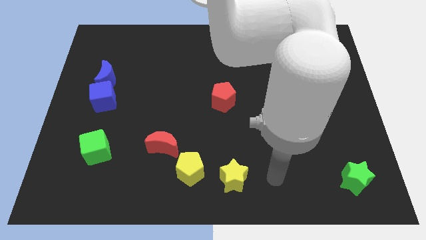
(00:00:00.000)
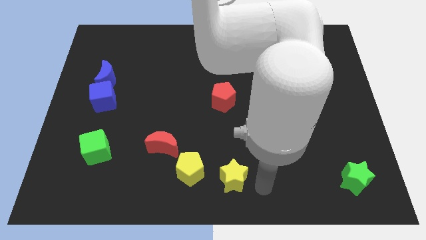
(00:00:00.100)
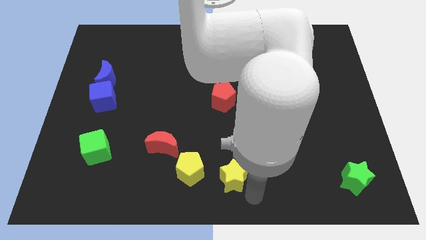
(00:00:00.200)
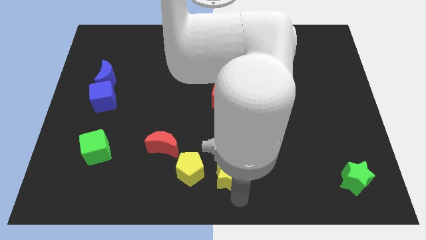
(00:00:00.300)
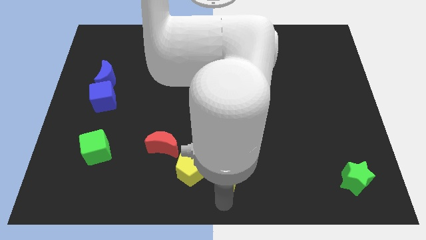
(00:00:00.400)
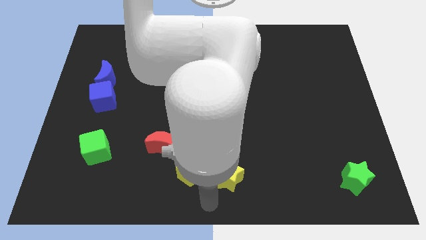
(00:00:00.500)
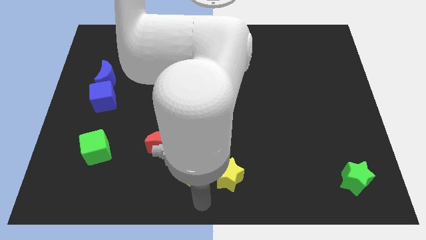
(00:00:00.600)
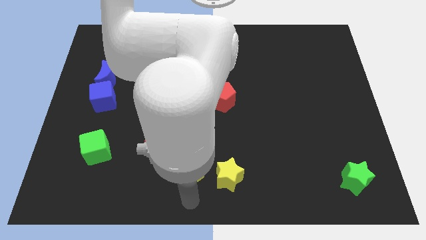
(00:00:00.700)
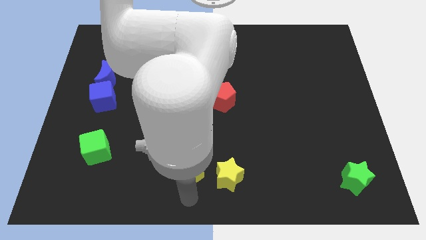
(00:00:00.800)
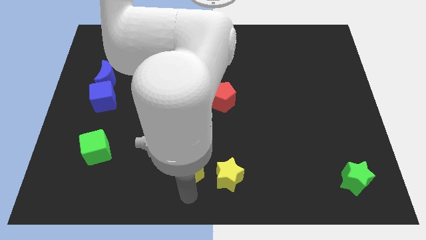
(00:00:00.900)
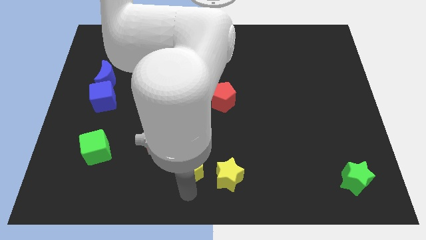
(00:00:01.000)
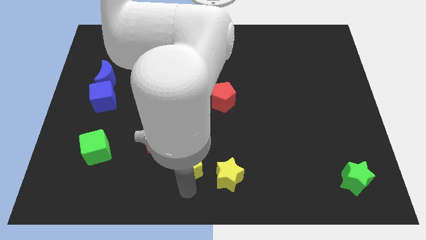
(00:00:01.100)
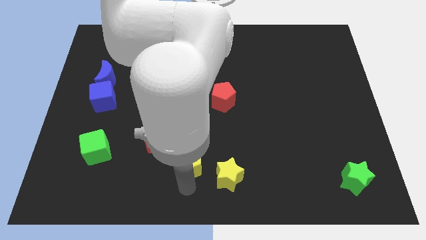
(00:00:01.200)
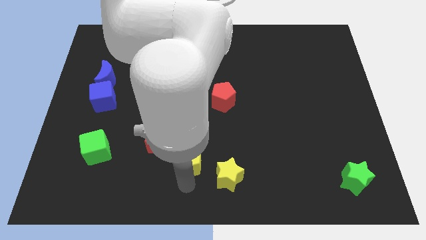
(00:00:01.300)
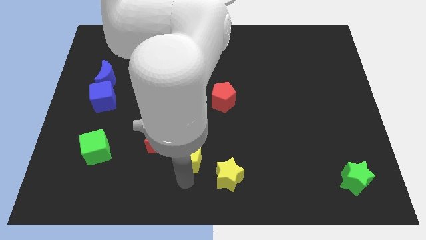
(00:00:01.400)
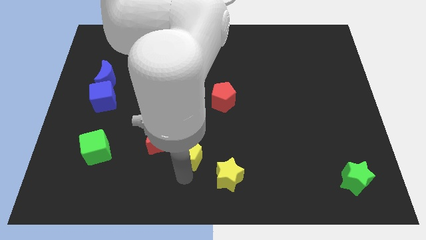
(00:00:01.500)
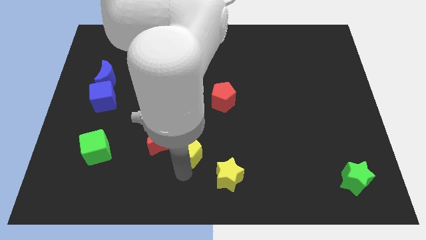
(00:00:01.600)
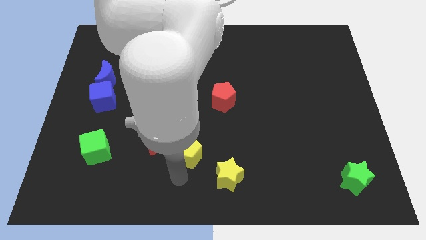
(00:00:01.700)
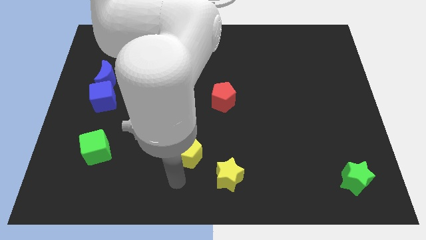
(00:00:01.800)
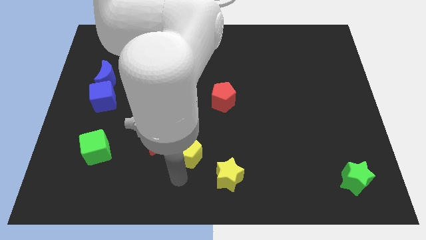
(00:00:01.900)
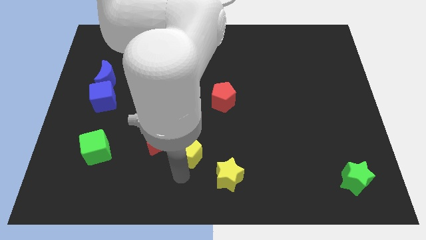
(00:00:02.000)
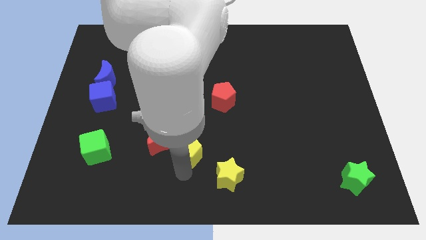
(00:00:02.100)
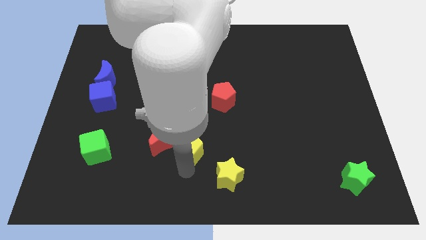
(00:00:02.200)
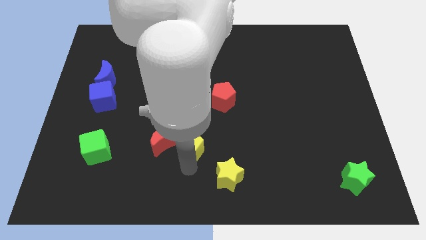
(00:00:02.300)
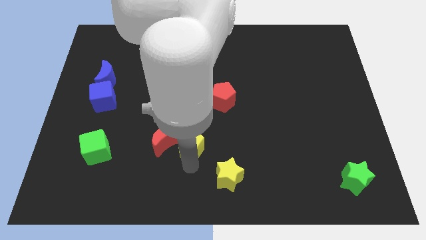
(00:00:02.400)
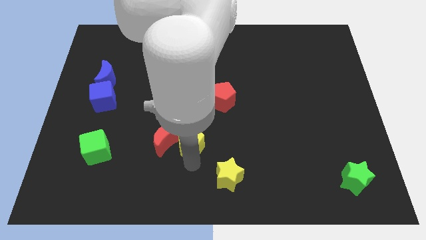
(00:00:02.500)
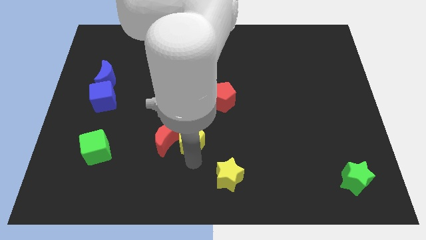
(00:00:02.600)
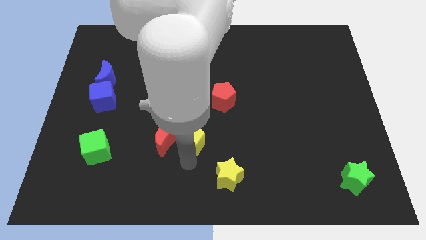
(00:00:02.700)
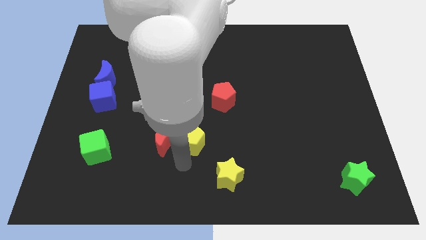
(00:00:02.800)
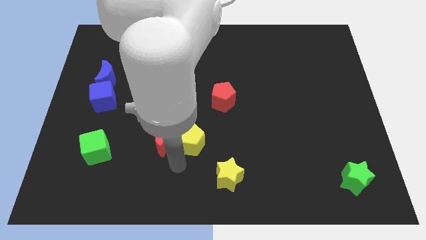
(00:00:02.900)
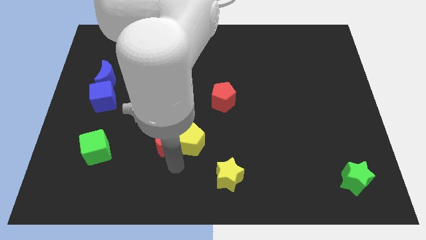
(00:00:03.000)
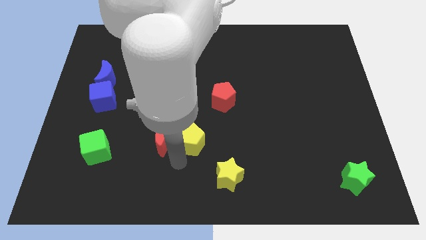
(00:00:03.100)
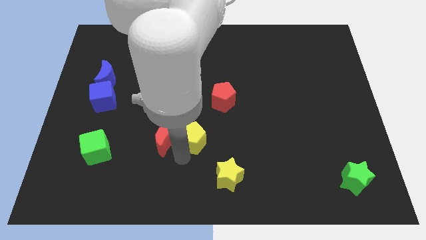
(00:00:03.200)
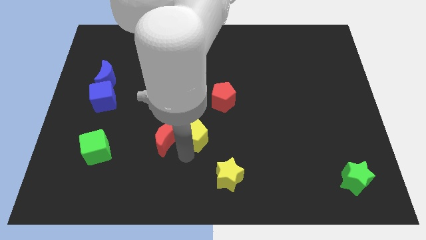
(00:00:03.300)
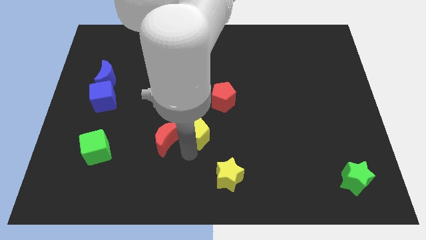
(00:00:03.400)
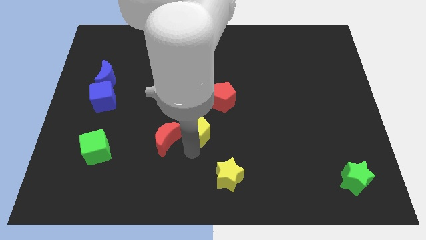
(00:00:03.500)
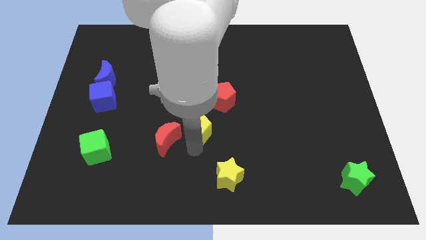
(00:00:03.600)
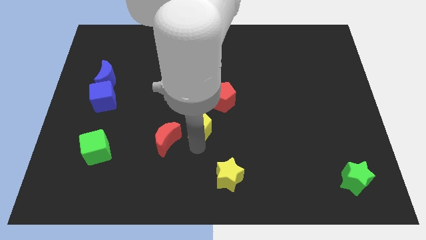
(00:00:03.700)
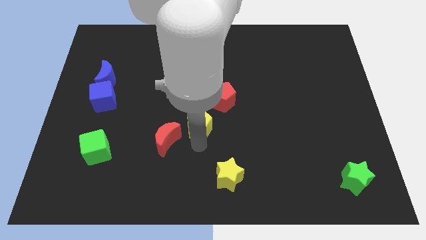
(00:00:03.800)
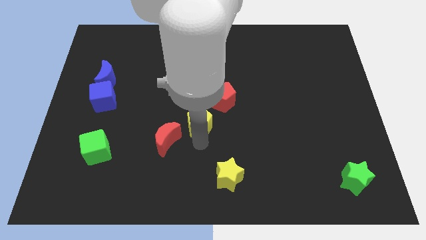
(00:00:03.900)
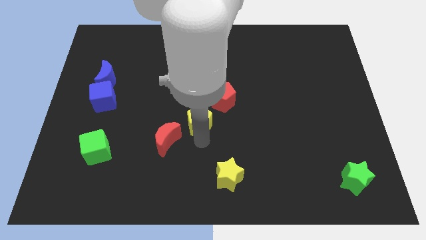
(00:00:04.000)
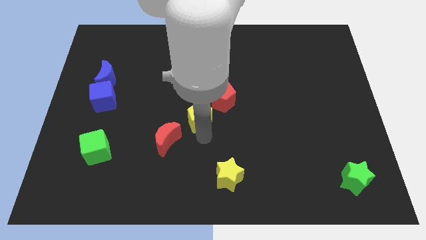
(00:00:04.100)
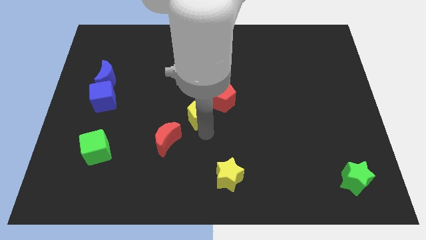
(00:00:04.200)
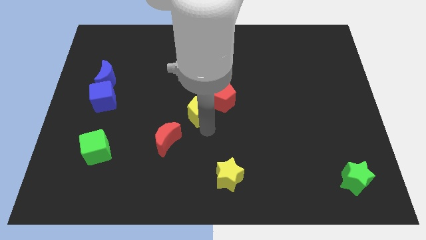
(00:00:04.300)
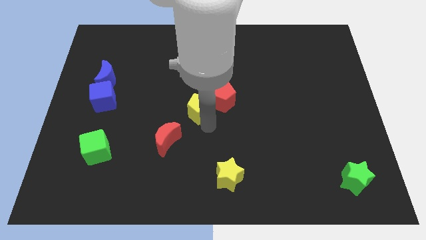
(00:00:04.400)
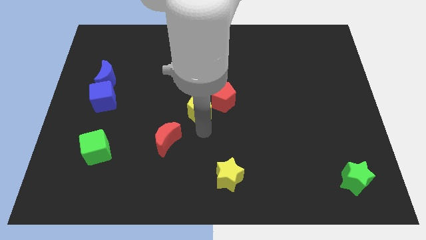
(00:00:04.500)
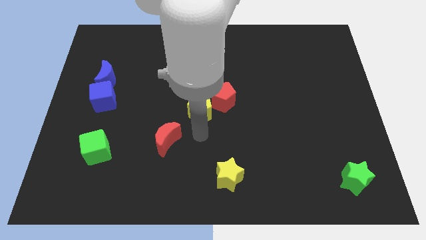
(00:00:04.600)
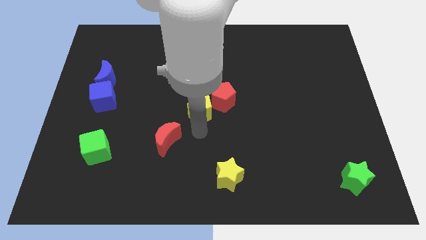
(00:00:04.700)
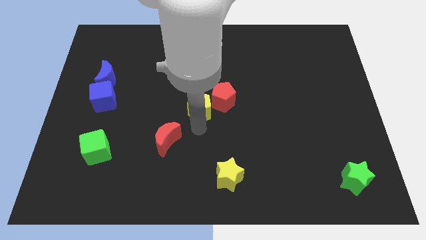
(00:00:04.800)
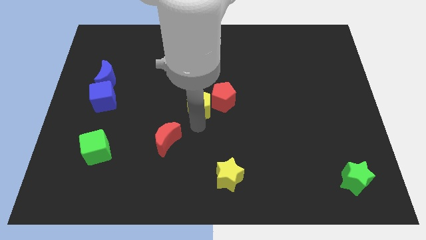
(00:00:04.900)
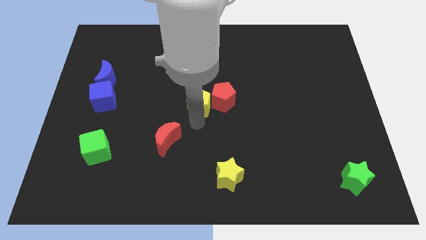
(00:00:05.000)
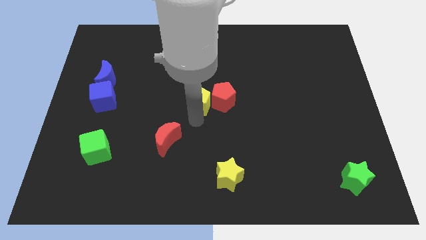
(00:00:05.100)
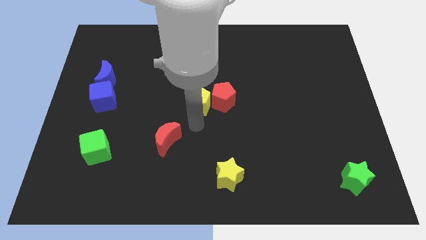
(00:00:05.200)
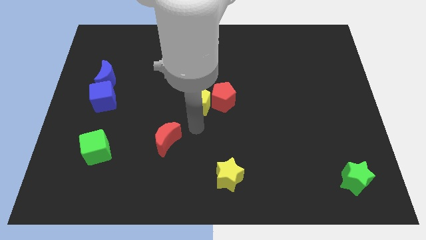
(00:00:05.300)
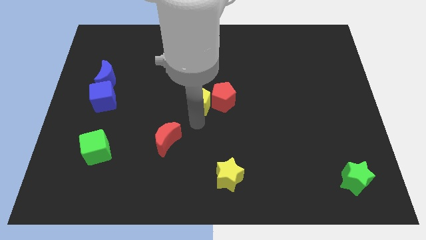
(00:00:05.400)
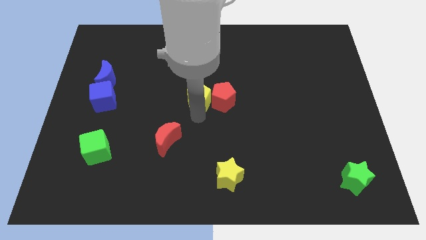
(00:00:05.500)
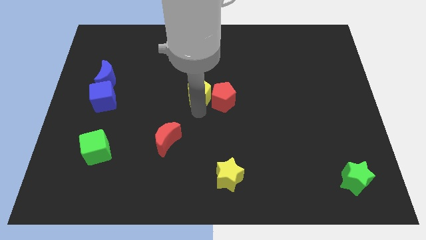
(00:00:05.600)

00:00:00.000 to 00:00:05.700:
move the yellow pentagon upwards

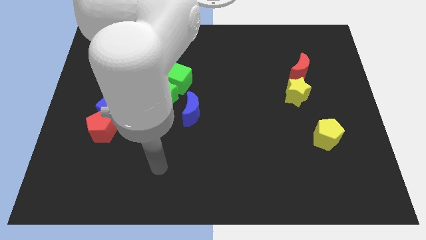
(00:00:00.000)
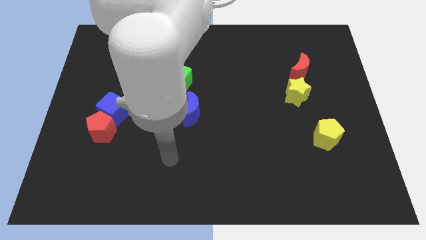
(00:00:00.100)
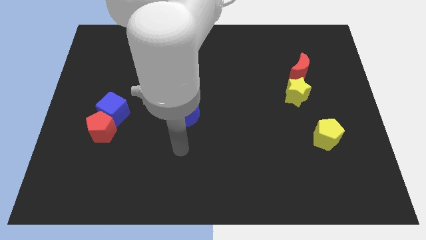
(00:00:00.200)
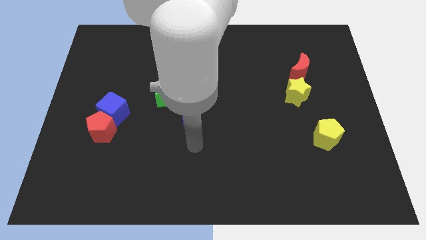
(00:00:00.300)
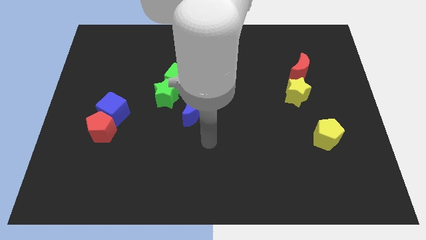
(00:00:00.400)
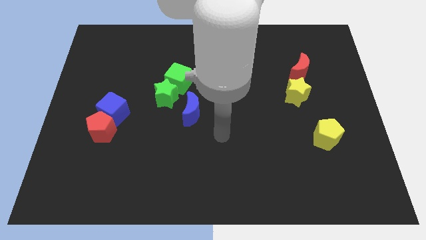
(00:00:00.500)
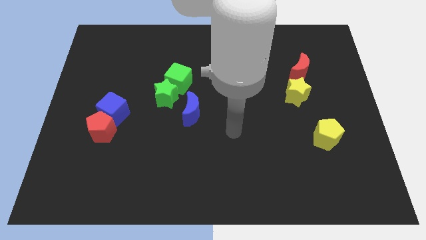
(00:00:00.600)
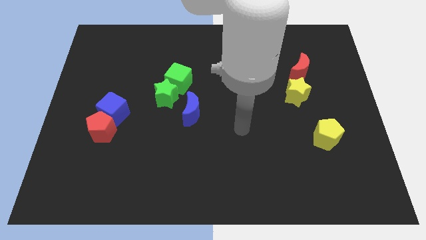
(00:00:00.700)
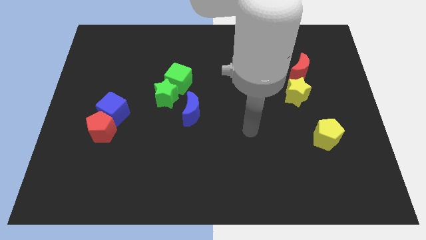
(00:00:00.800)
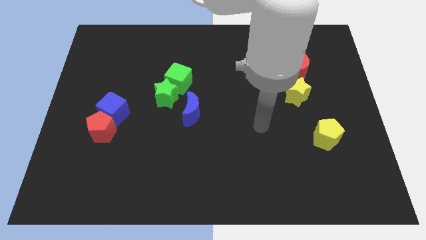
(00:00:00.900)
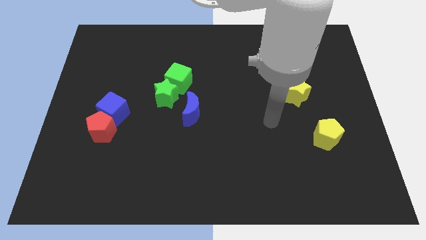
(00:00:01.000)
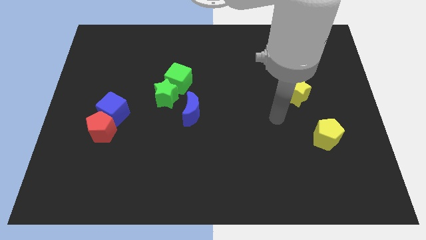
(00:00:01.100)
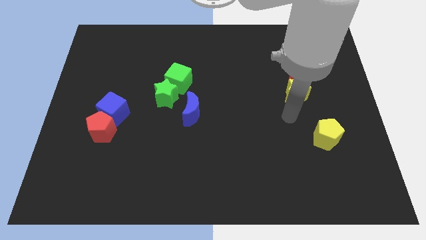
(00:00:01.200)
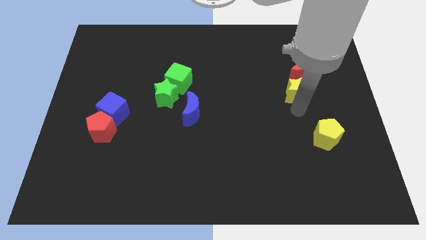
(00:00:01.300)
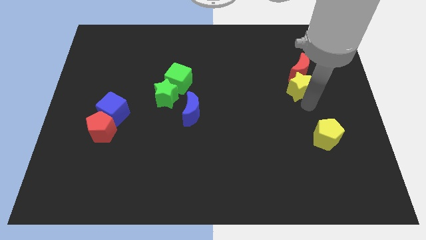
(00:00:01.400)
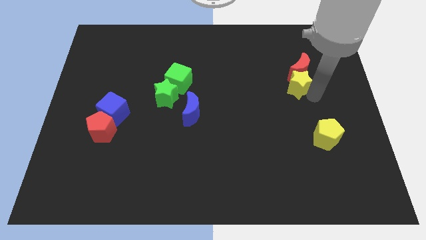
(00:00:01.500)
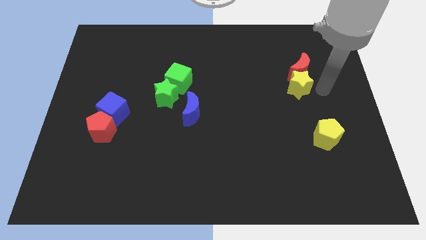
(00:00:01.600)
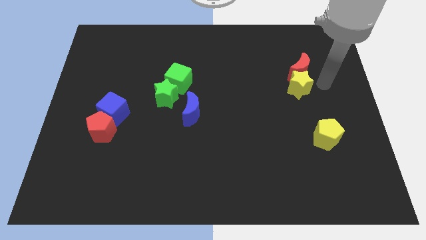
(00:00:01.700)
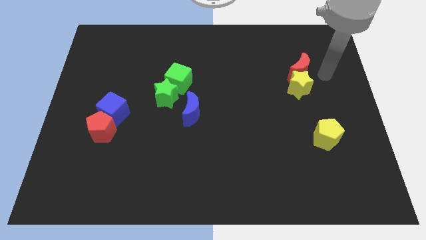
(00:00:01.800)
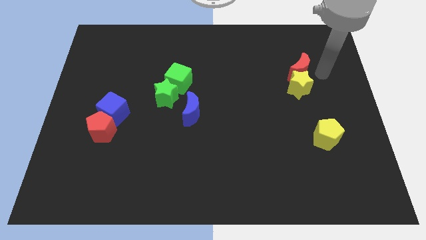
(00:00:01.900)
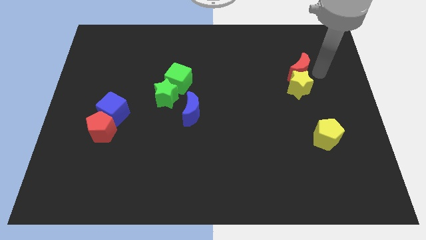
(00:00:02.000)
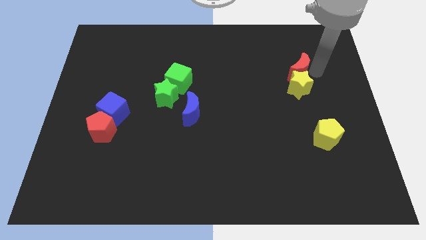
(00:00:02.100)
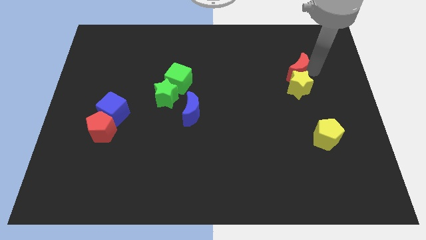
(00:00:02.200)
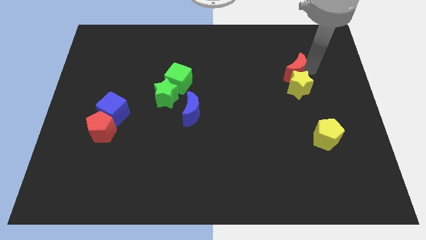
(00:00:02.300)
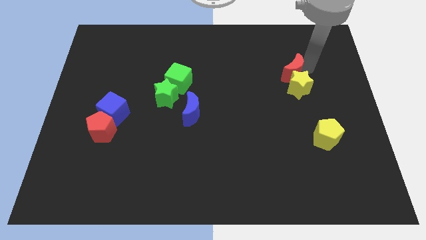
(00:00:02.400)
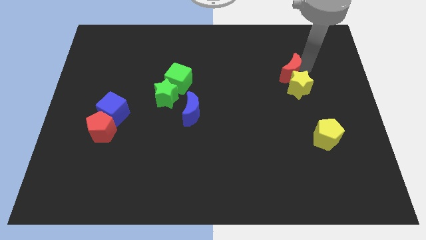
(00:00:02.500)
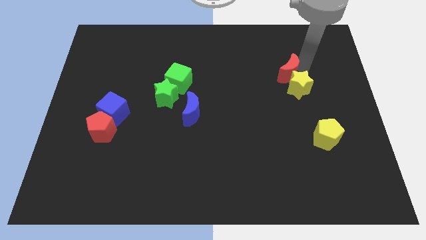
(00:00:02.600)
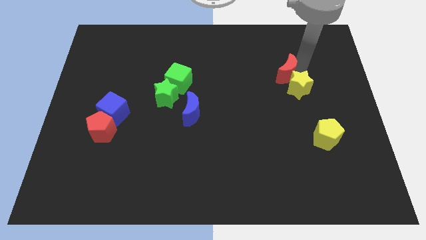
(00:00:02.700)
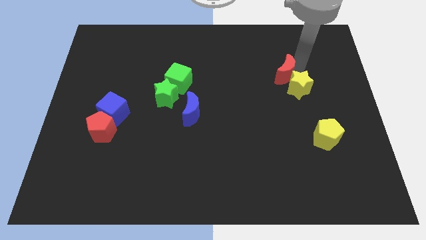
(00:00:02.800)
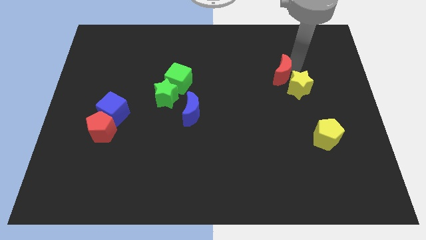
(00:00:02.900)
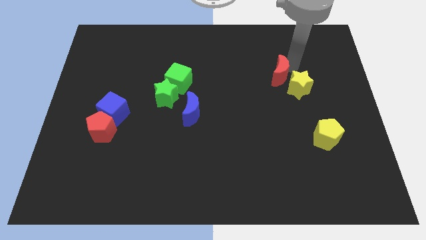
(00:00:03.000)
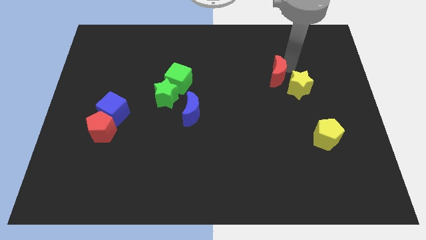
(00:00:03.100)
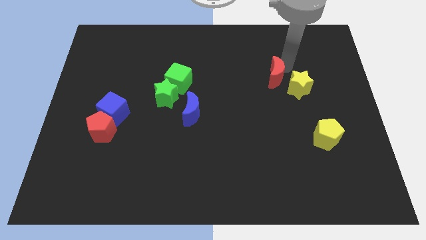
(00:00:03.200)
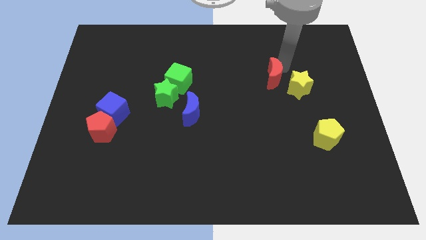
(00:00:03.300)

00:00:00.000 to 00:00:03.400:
slightly push the red moon to the left
